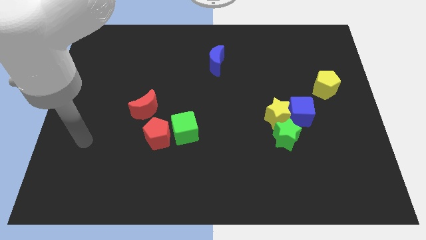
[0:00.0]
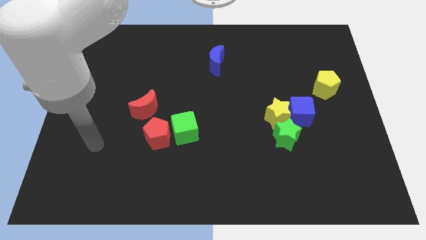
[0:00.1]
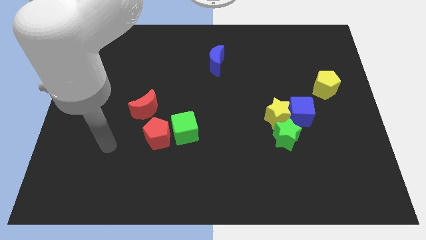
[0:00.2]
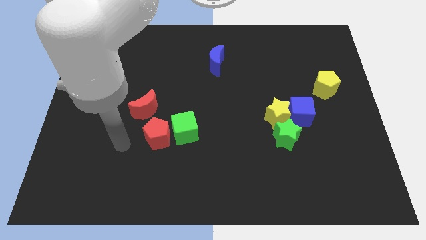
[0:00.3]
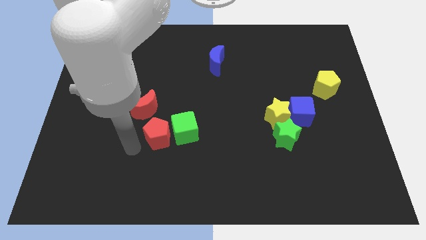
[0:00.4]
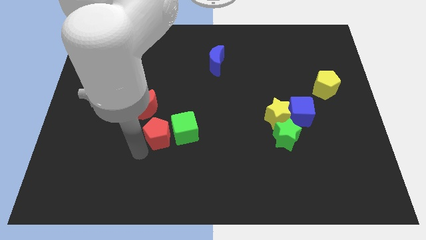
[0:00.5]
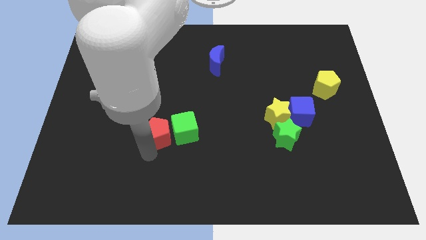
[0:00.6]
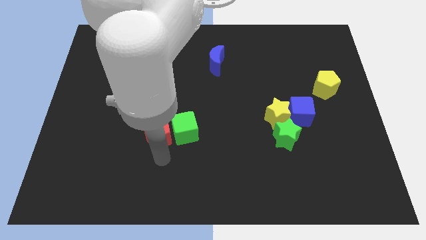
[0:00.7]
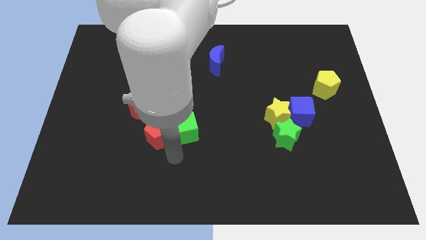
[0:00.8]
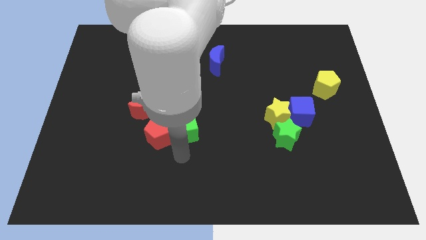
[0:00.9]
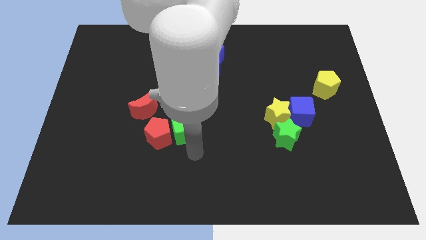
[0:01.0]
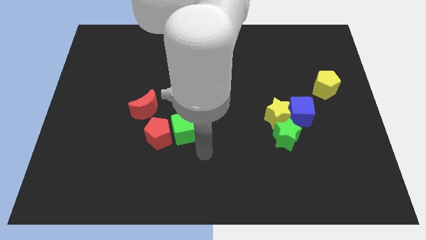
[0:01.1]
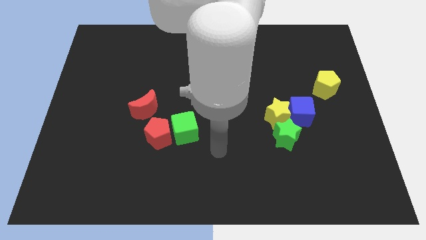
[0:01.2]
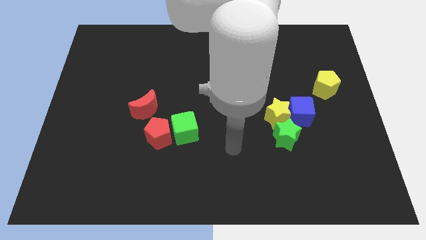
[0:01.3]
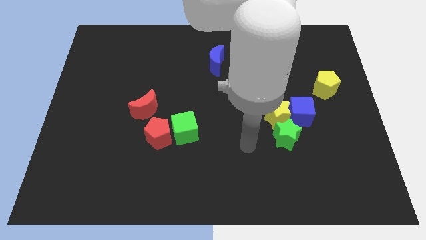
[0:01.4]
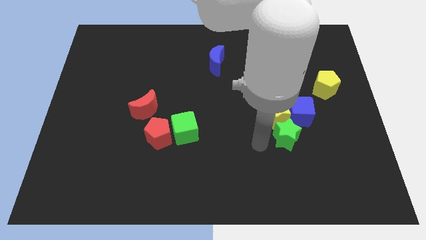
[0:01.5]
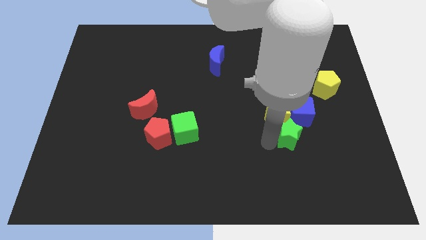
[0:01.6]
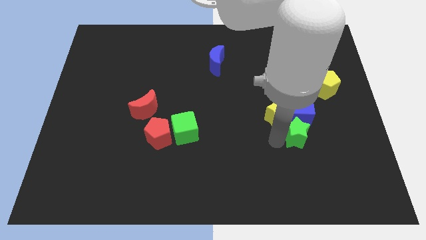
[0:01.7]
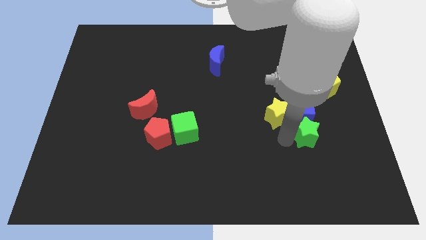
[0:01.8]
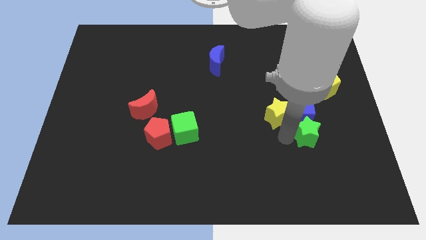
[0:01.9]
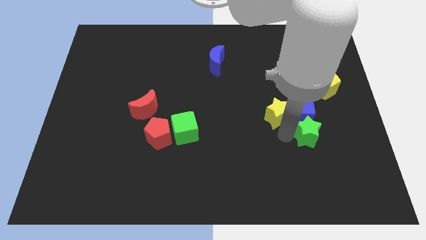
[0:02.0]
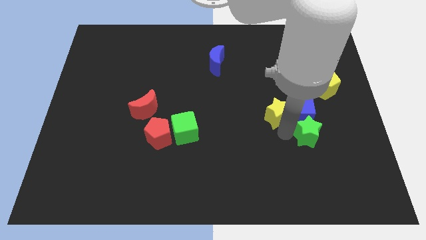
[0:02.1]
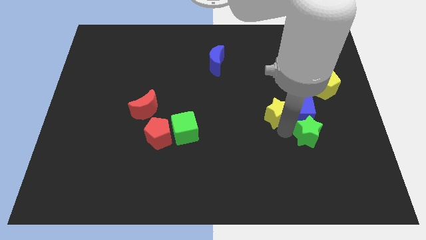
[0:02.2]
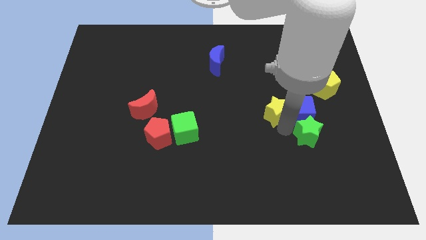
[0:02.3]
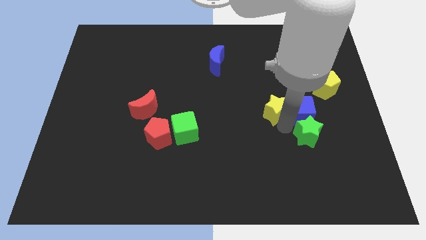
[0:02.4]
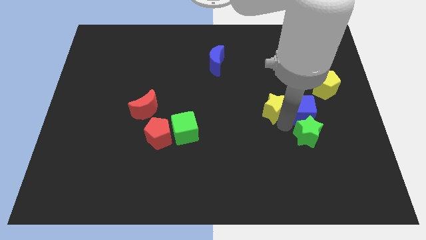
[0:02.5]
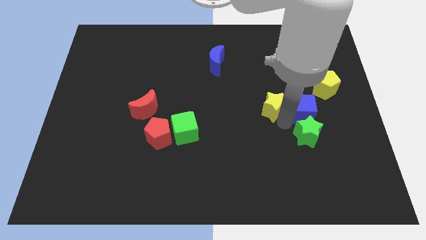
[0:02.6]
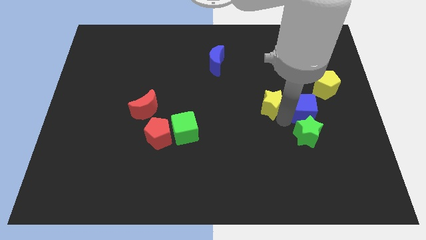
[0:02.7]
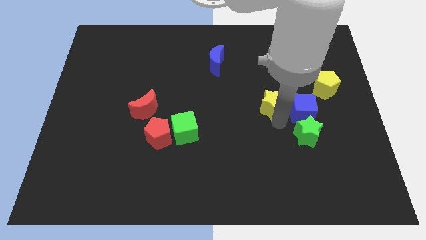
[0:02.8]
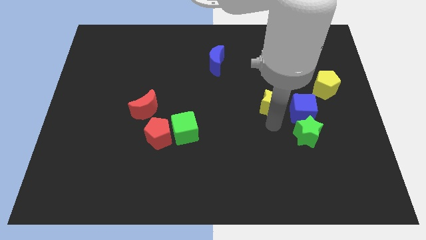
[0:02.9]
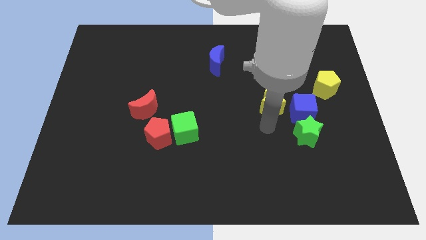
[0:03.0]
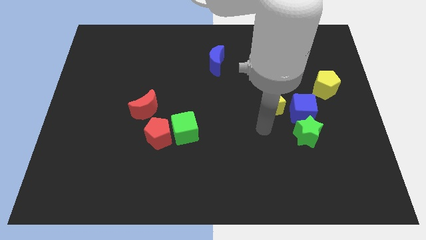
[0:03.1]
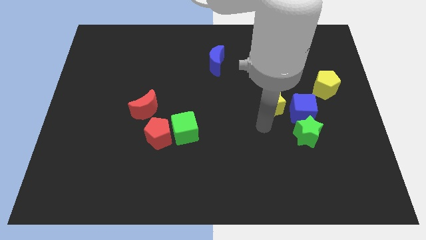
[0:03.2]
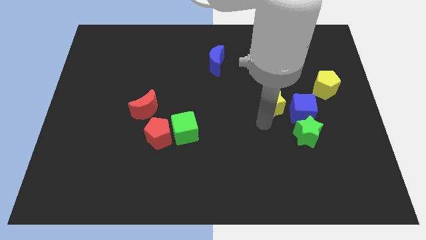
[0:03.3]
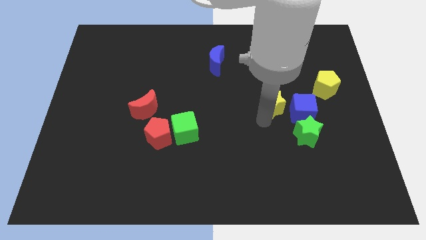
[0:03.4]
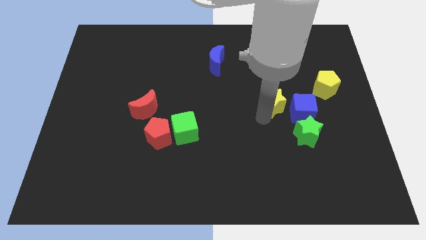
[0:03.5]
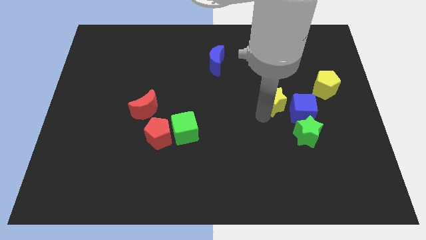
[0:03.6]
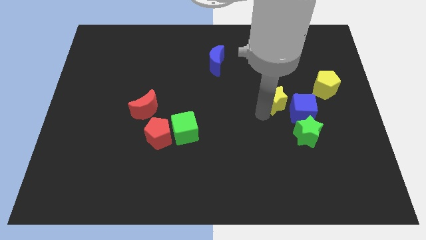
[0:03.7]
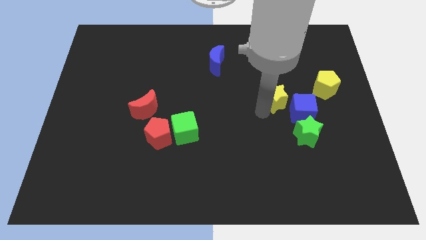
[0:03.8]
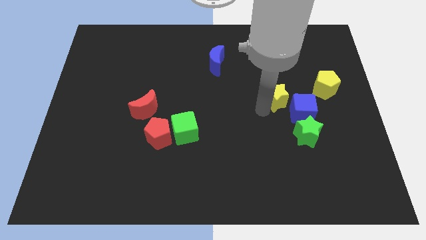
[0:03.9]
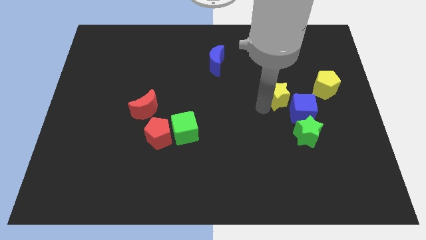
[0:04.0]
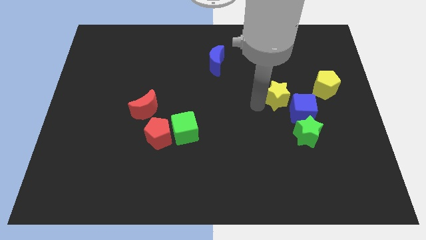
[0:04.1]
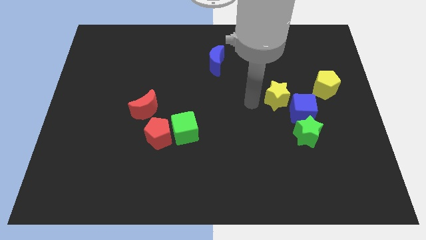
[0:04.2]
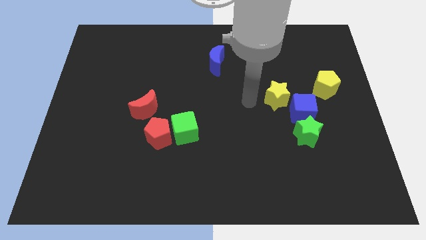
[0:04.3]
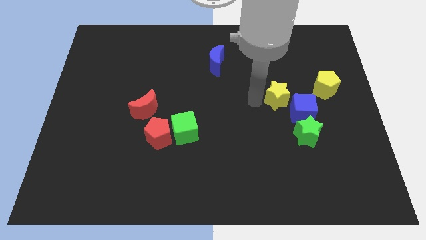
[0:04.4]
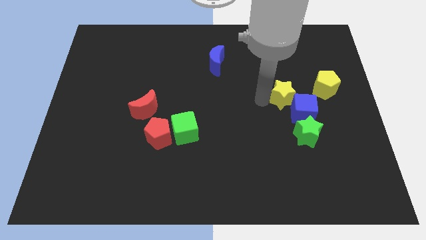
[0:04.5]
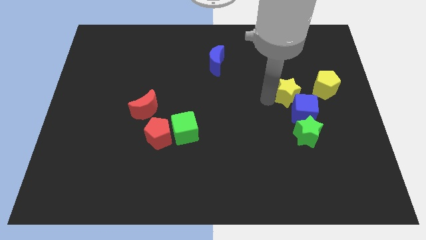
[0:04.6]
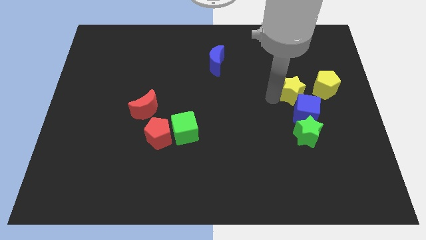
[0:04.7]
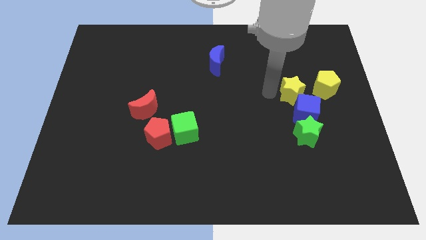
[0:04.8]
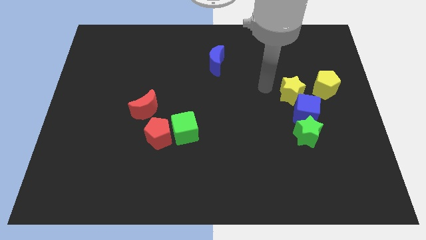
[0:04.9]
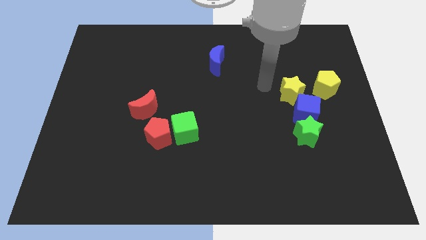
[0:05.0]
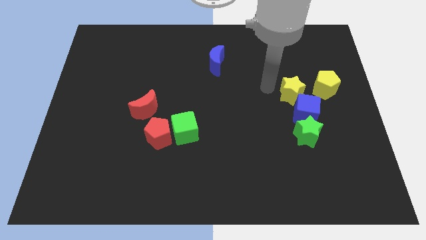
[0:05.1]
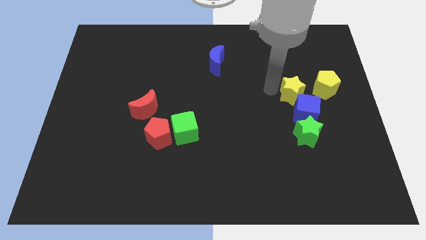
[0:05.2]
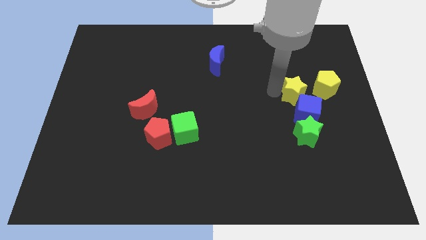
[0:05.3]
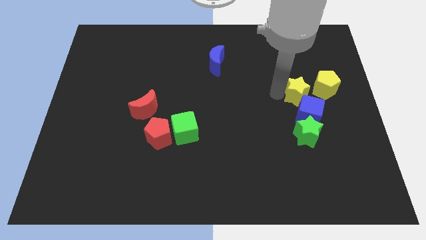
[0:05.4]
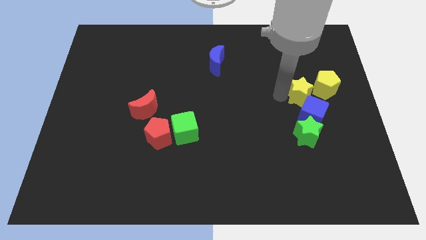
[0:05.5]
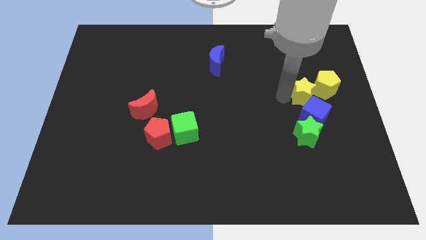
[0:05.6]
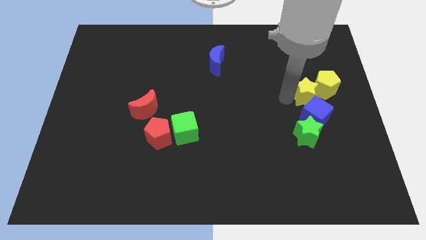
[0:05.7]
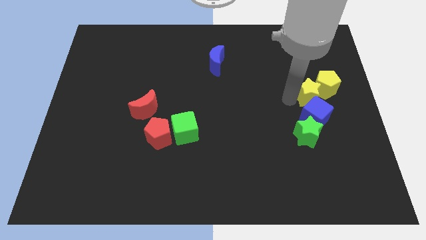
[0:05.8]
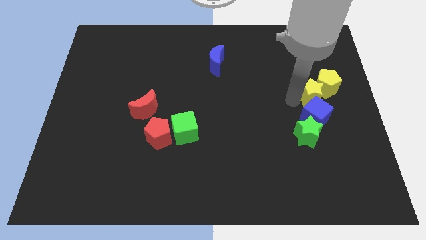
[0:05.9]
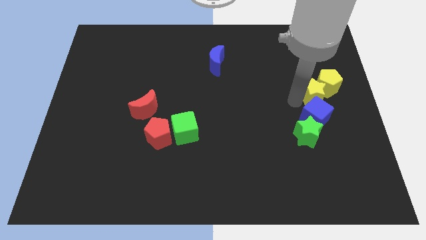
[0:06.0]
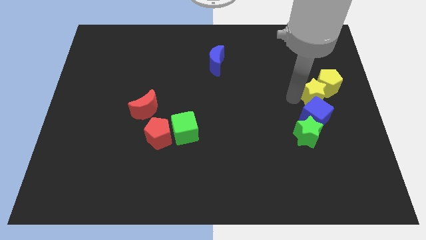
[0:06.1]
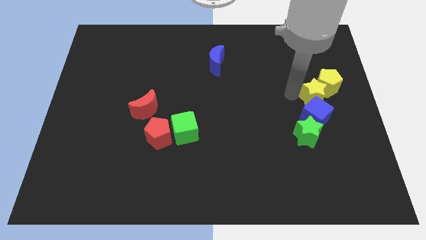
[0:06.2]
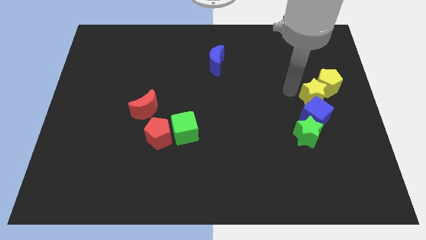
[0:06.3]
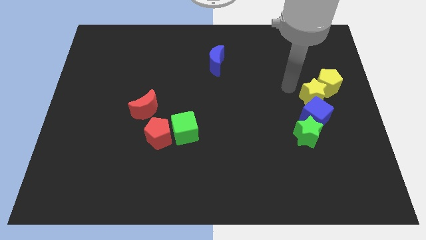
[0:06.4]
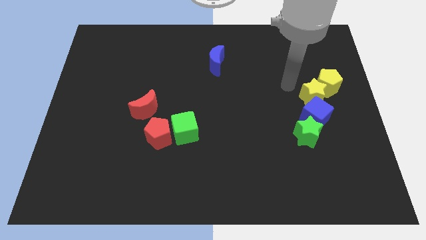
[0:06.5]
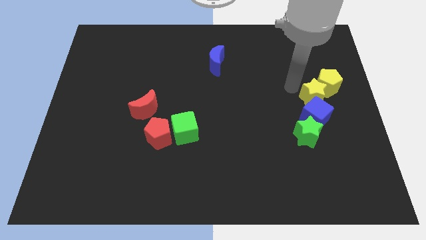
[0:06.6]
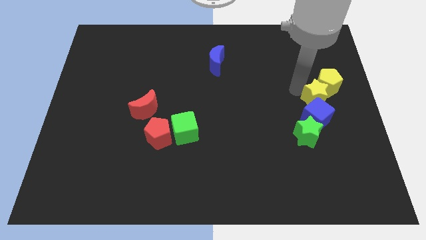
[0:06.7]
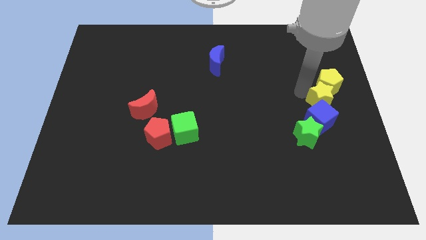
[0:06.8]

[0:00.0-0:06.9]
move the yellow star to the center right
